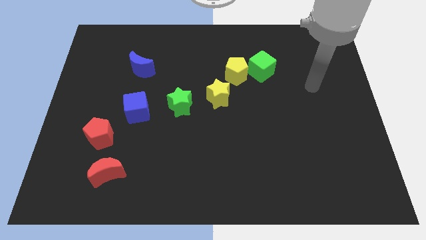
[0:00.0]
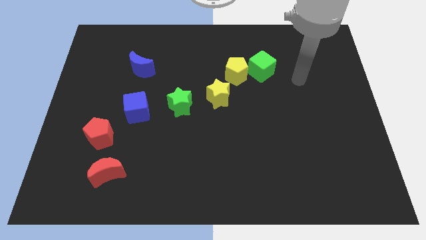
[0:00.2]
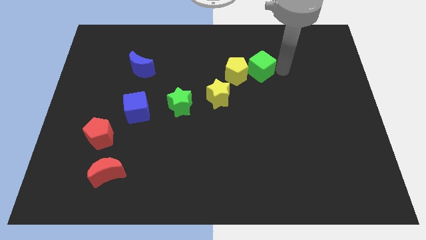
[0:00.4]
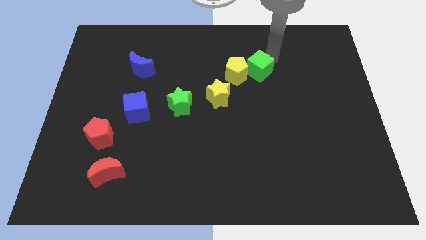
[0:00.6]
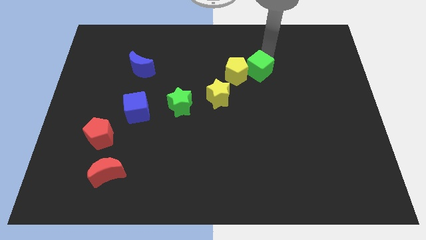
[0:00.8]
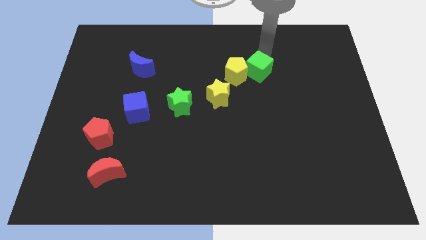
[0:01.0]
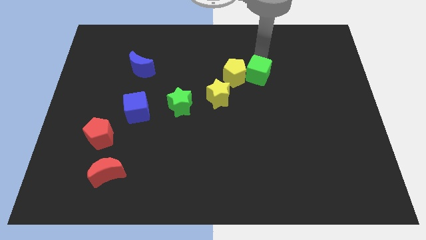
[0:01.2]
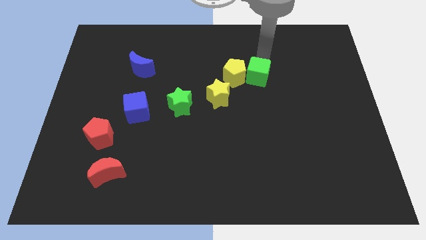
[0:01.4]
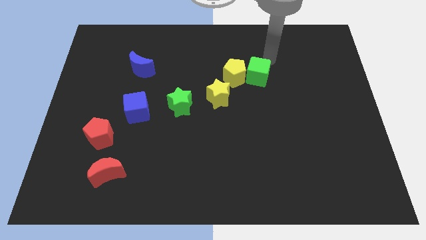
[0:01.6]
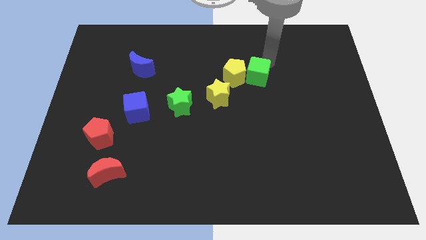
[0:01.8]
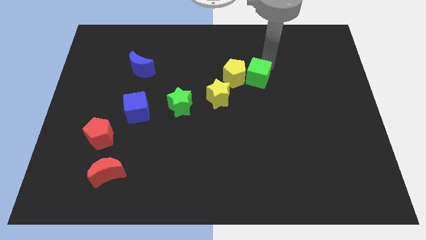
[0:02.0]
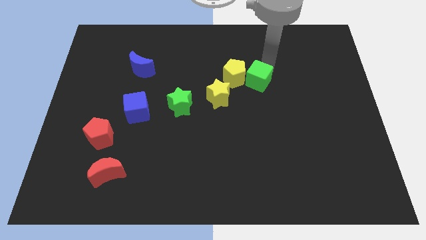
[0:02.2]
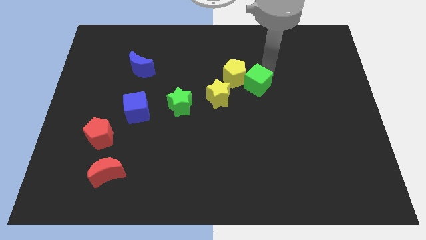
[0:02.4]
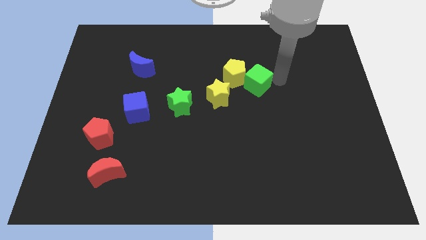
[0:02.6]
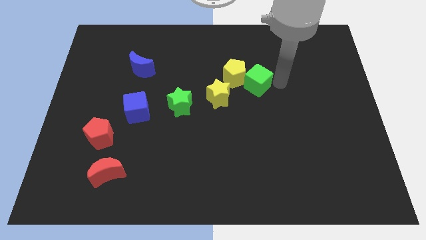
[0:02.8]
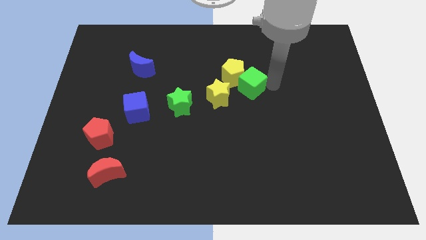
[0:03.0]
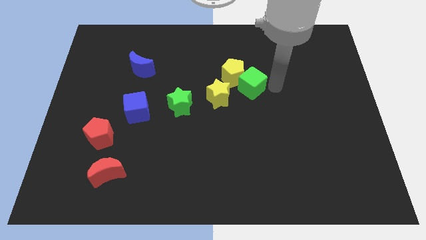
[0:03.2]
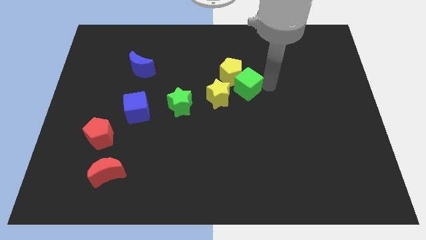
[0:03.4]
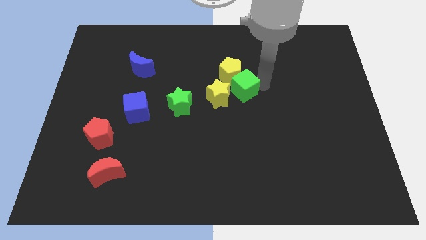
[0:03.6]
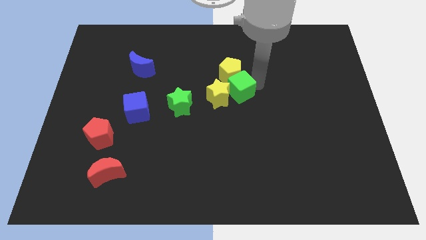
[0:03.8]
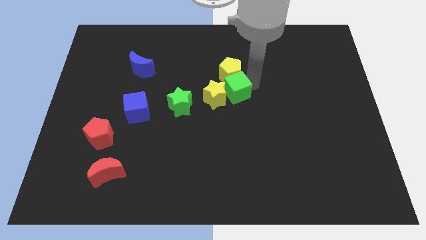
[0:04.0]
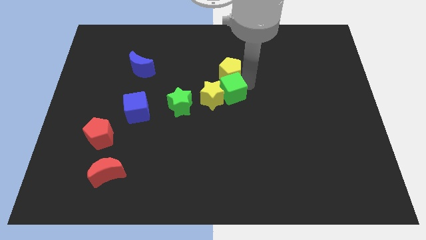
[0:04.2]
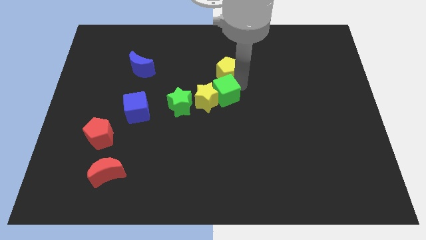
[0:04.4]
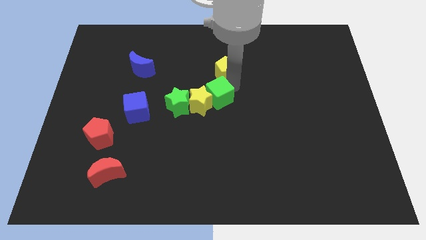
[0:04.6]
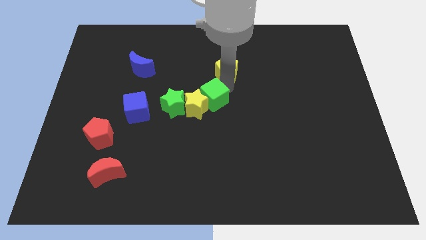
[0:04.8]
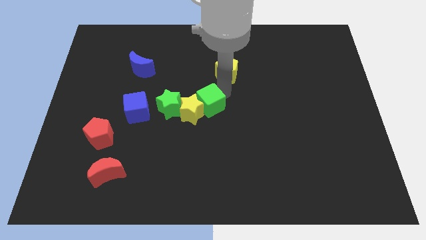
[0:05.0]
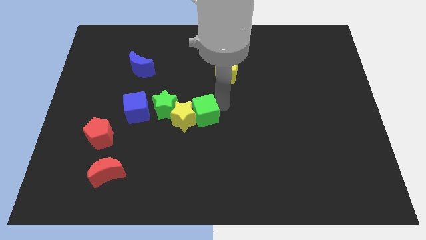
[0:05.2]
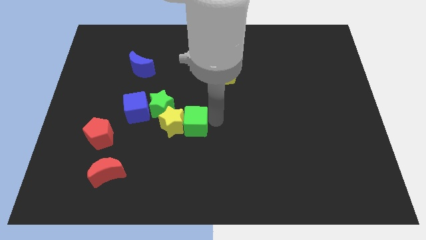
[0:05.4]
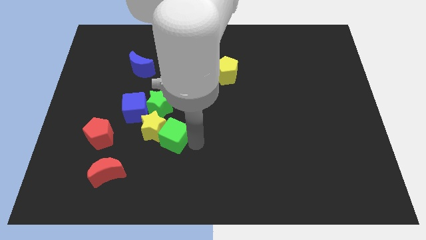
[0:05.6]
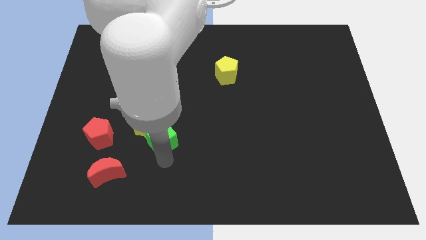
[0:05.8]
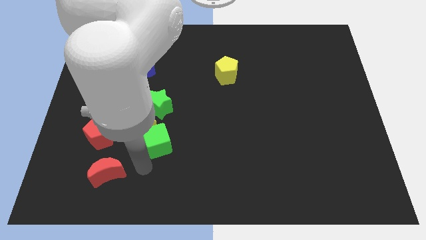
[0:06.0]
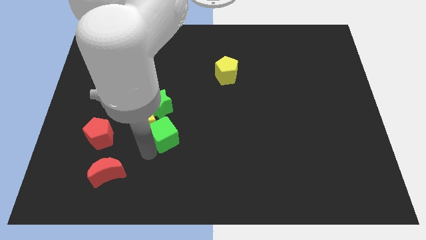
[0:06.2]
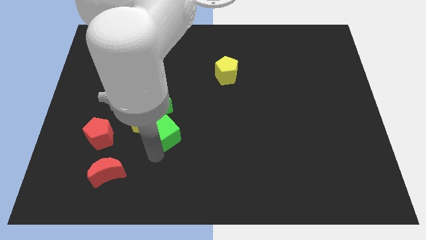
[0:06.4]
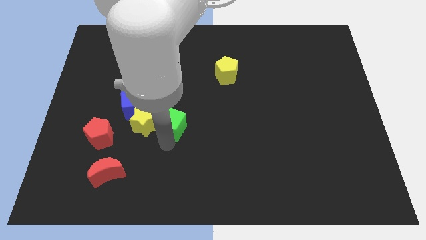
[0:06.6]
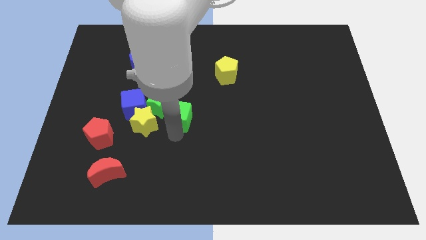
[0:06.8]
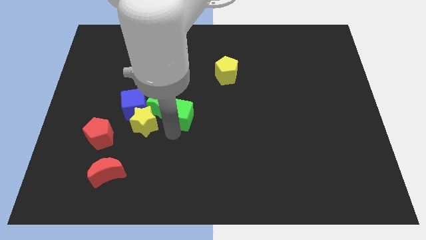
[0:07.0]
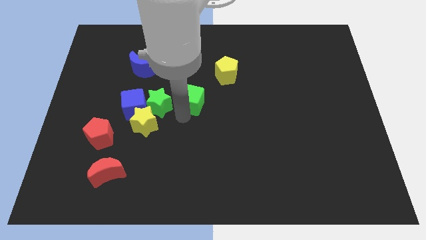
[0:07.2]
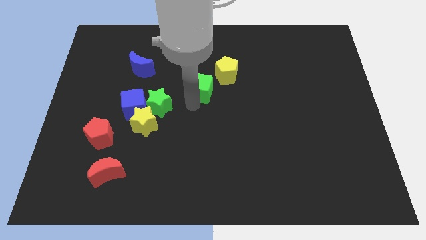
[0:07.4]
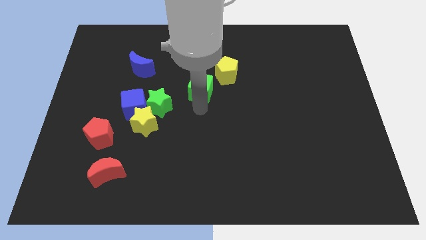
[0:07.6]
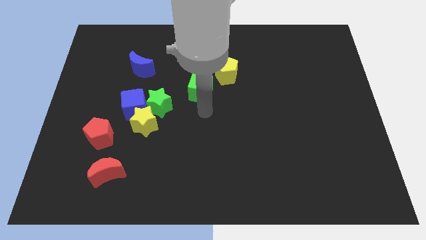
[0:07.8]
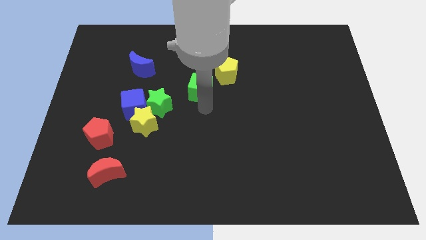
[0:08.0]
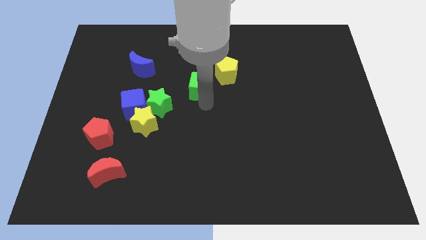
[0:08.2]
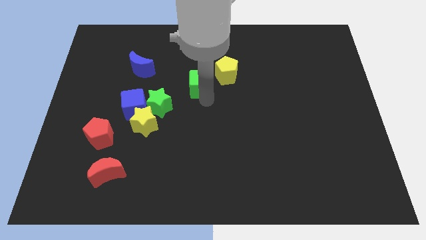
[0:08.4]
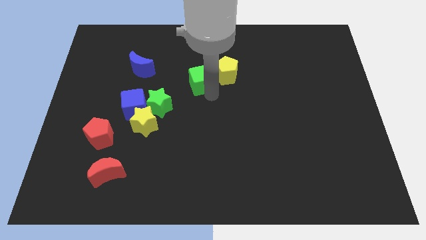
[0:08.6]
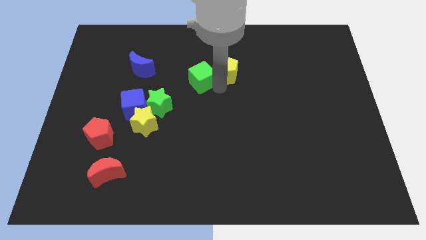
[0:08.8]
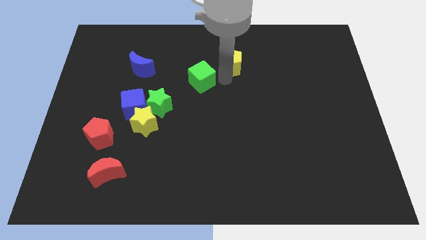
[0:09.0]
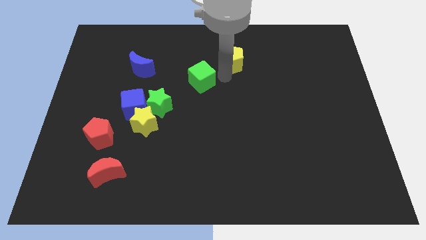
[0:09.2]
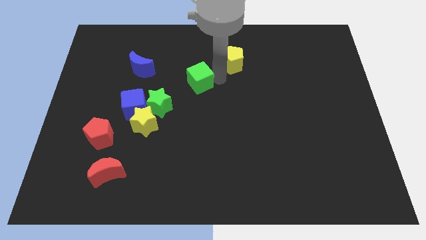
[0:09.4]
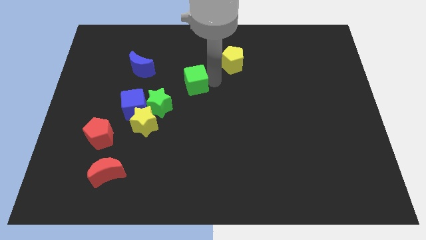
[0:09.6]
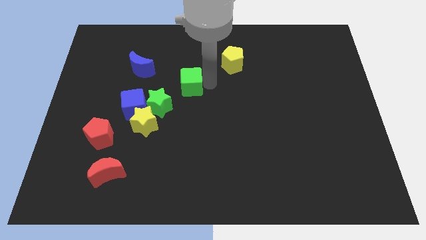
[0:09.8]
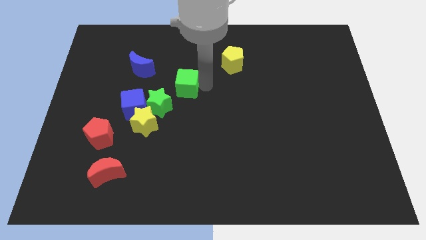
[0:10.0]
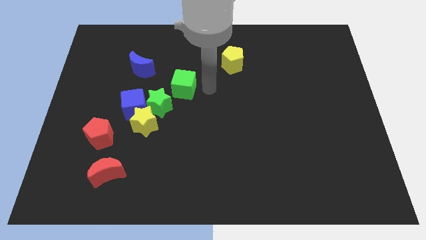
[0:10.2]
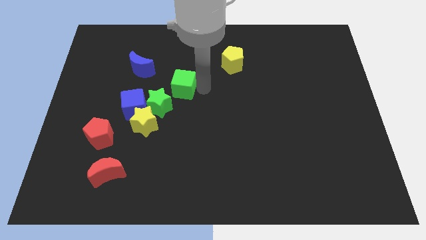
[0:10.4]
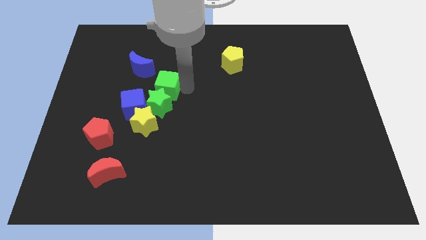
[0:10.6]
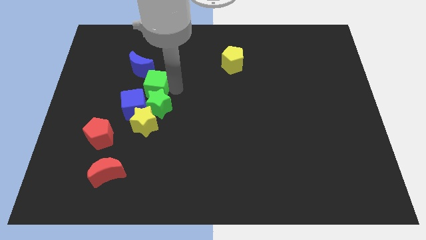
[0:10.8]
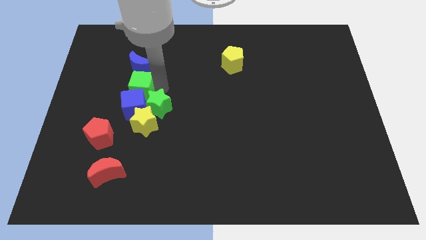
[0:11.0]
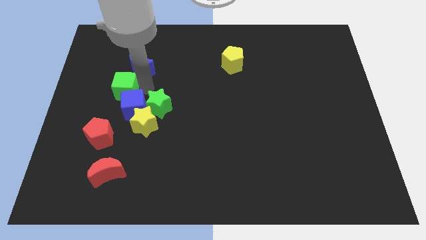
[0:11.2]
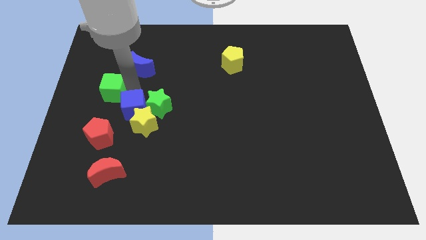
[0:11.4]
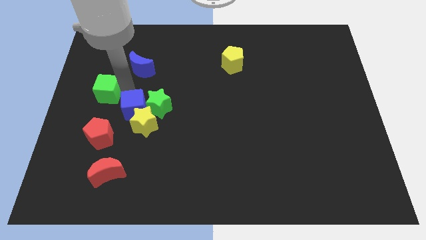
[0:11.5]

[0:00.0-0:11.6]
slide the green cube to the left side
